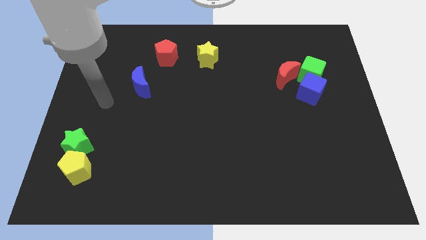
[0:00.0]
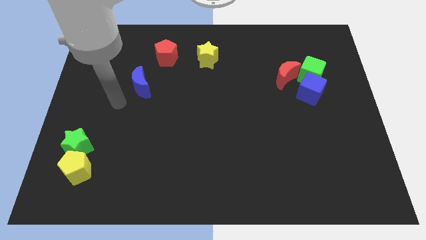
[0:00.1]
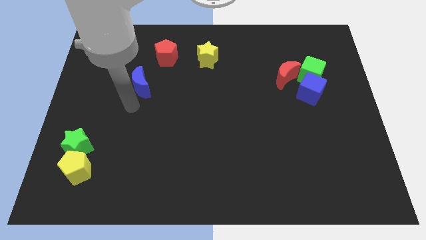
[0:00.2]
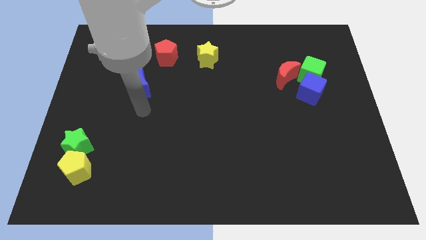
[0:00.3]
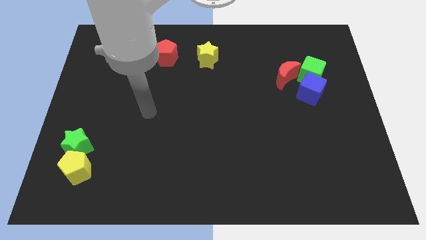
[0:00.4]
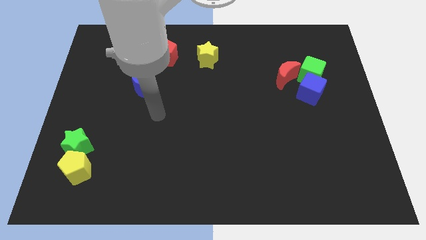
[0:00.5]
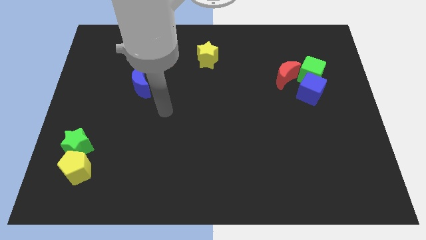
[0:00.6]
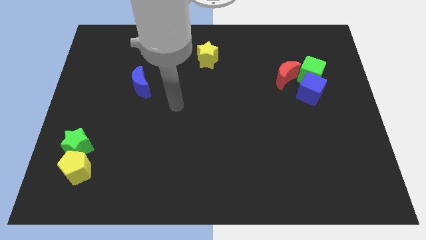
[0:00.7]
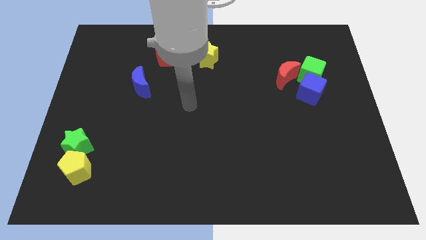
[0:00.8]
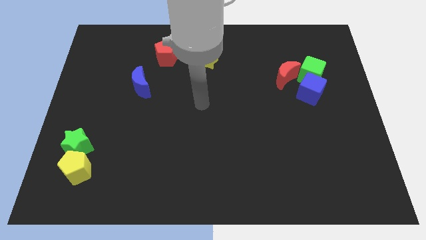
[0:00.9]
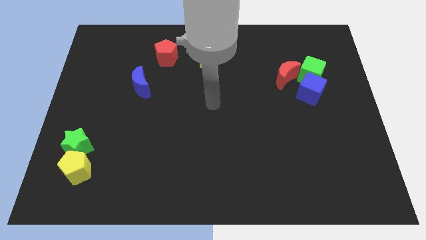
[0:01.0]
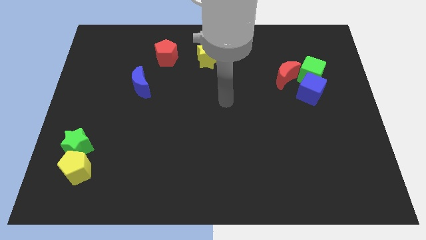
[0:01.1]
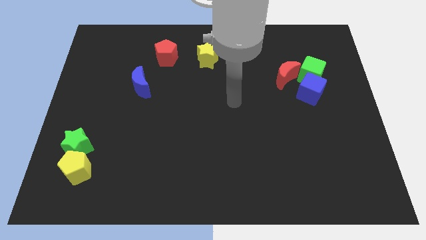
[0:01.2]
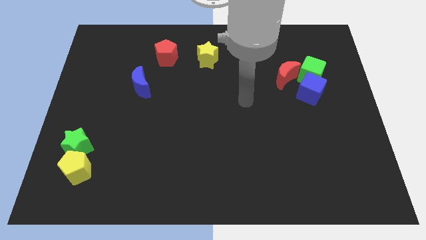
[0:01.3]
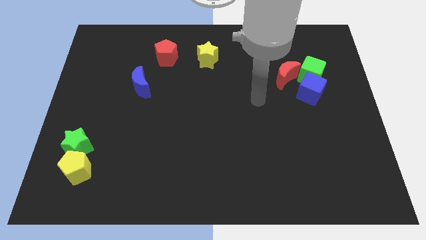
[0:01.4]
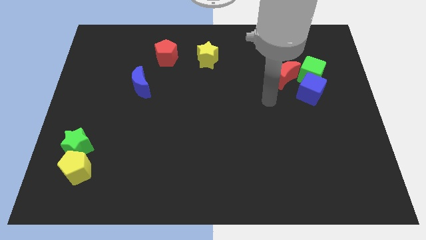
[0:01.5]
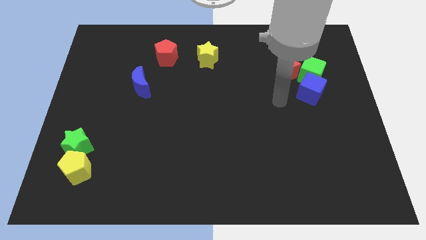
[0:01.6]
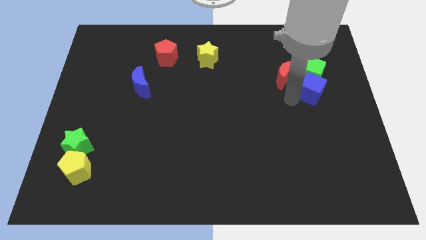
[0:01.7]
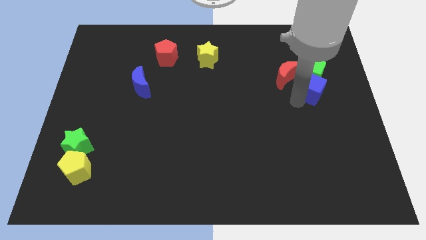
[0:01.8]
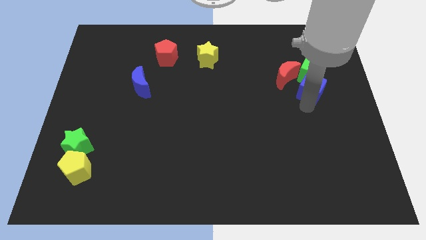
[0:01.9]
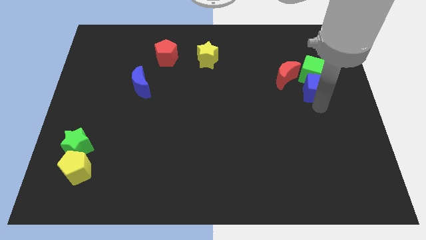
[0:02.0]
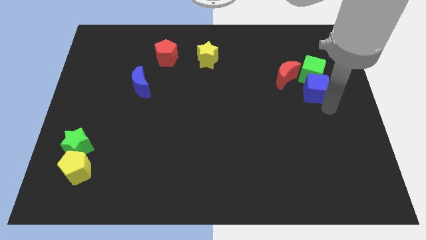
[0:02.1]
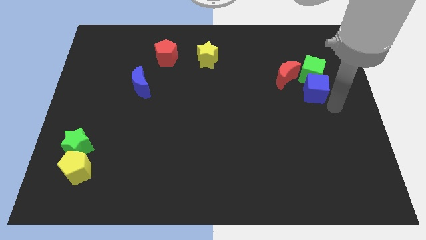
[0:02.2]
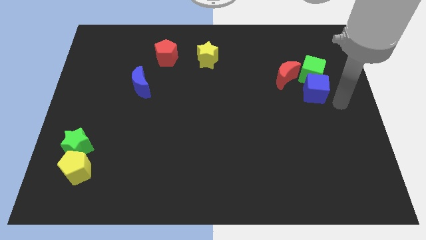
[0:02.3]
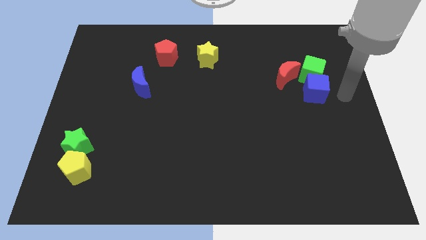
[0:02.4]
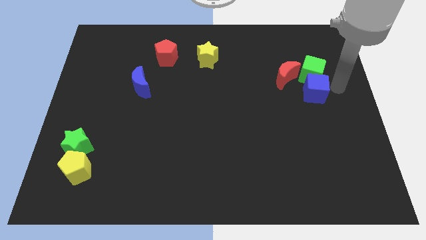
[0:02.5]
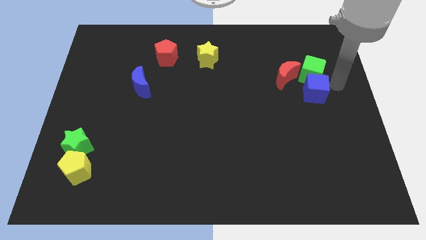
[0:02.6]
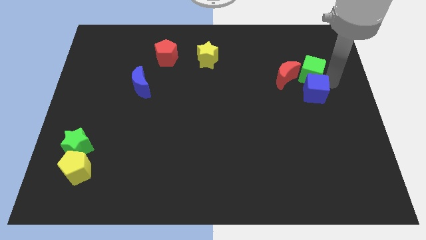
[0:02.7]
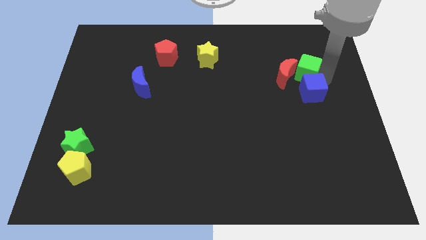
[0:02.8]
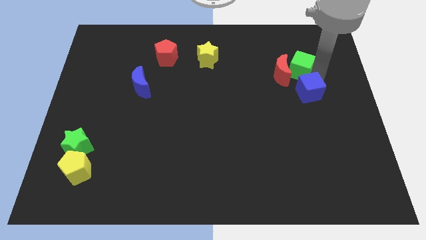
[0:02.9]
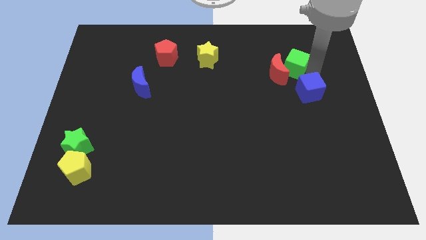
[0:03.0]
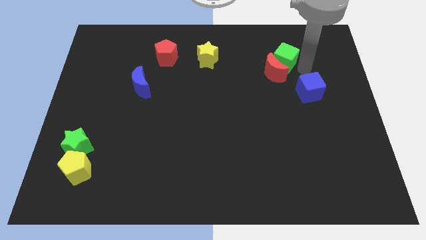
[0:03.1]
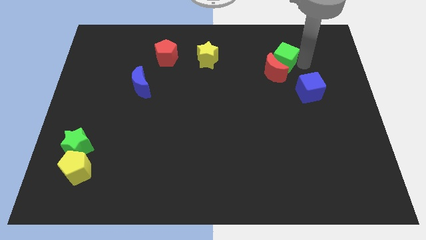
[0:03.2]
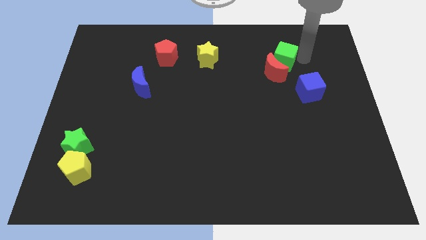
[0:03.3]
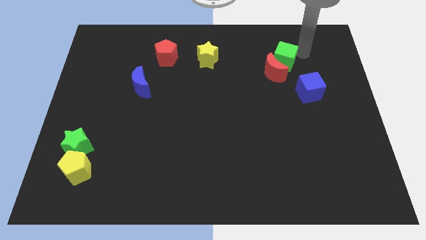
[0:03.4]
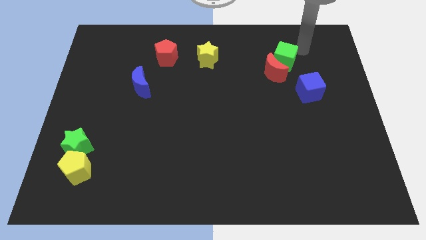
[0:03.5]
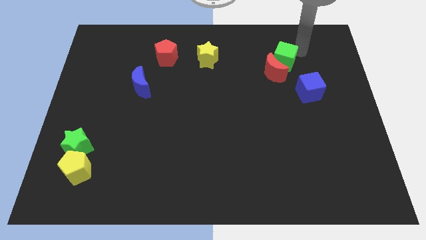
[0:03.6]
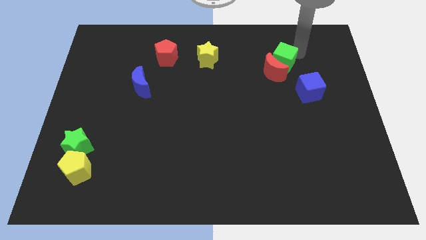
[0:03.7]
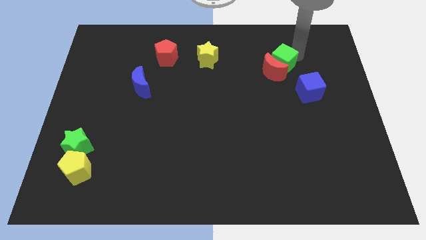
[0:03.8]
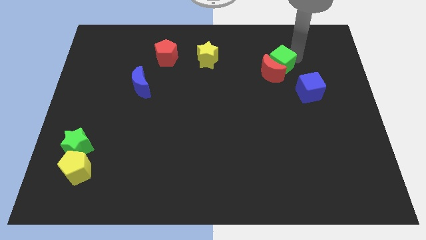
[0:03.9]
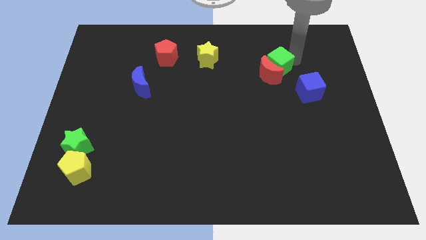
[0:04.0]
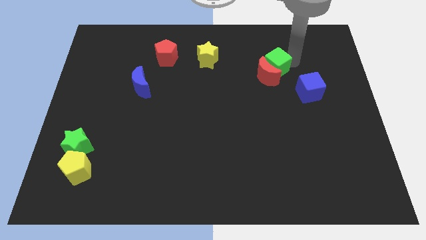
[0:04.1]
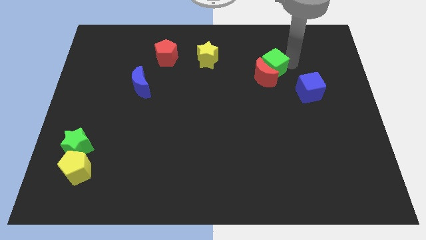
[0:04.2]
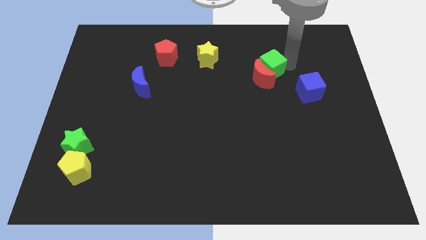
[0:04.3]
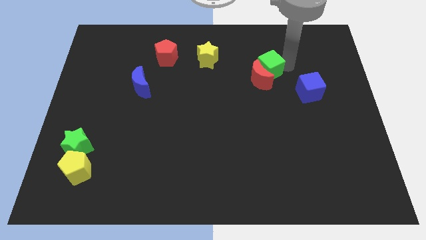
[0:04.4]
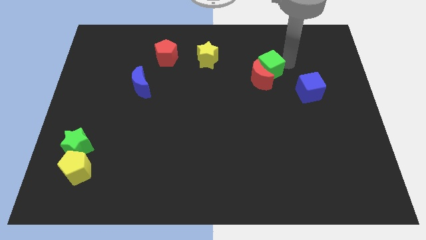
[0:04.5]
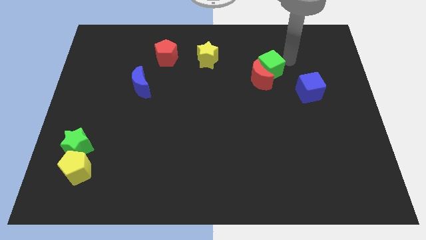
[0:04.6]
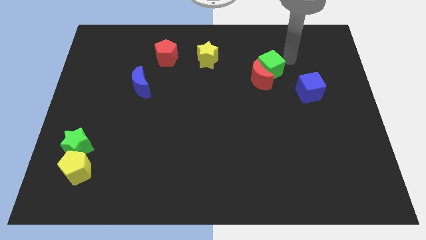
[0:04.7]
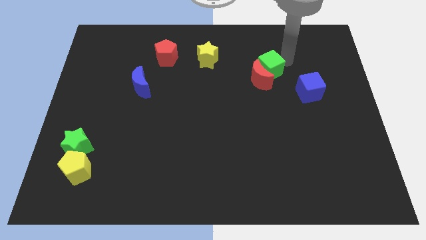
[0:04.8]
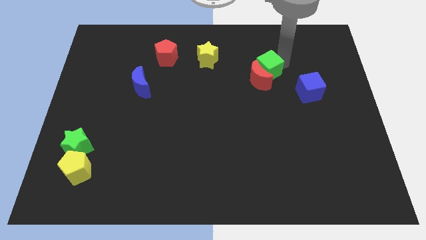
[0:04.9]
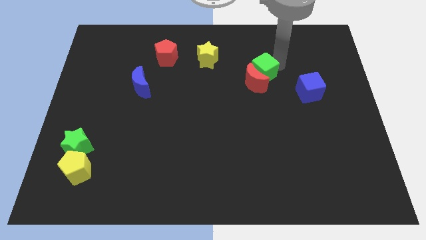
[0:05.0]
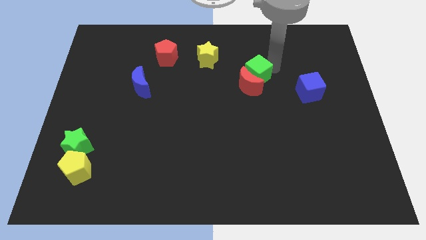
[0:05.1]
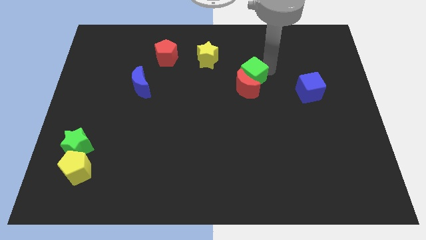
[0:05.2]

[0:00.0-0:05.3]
put the green cube to the middle of the board

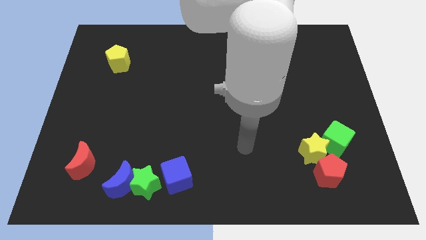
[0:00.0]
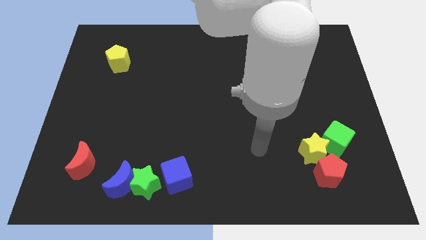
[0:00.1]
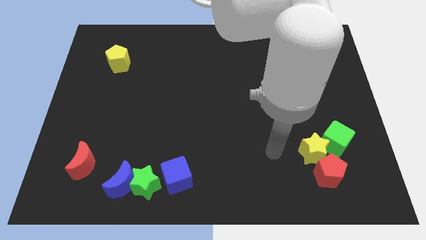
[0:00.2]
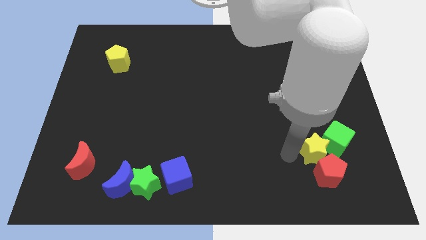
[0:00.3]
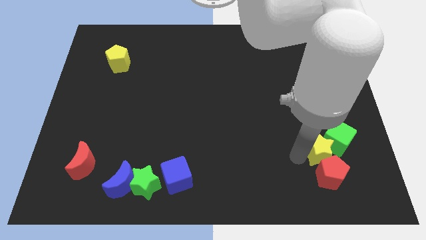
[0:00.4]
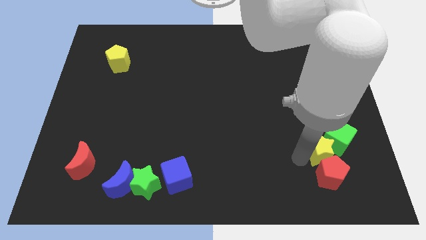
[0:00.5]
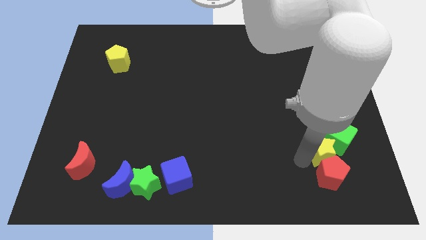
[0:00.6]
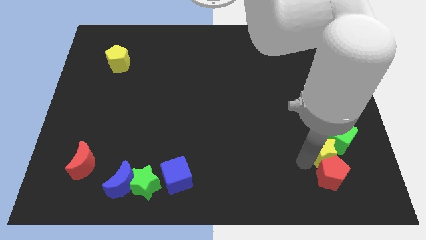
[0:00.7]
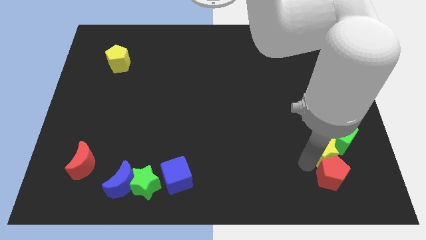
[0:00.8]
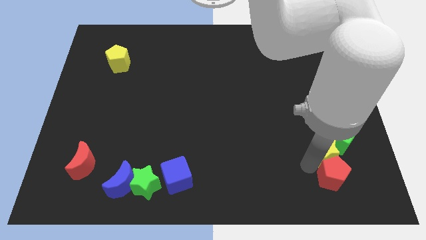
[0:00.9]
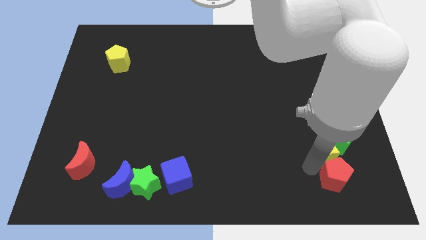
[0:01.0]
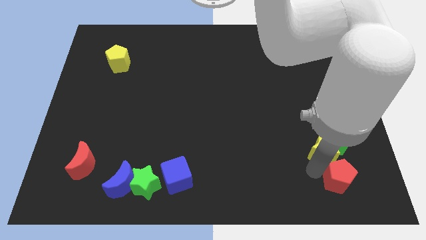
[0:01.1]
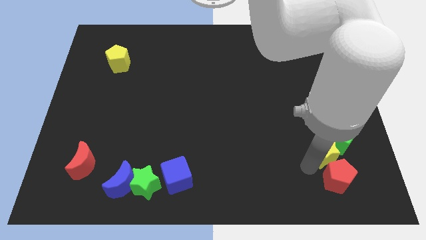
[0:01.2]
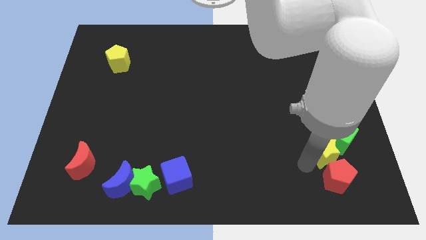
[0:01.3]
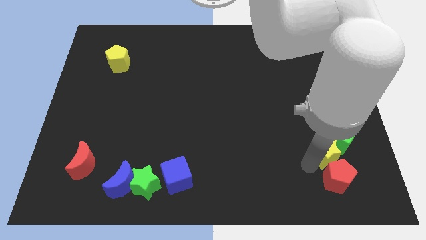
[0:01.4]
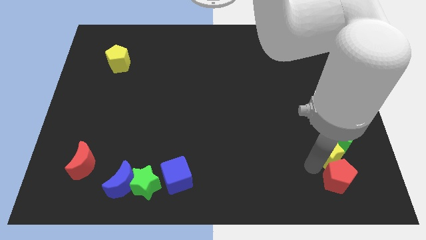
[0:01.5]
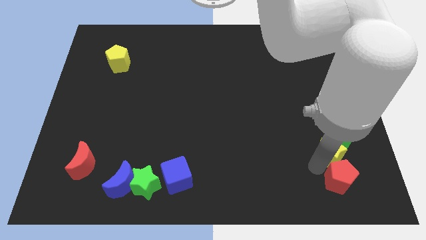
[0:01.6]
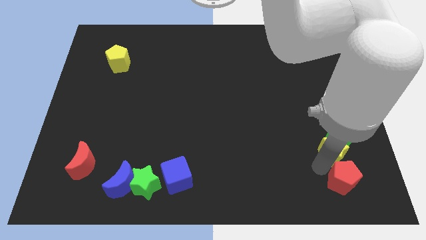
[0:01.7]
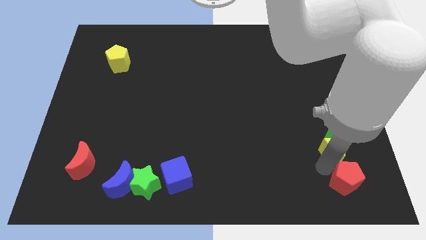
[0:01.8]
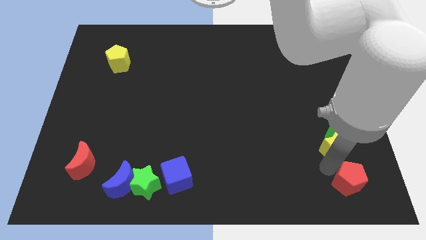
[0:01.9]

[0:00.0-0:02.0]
move the red pentagon to the bottom right
